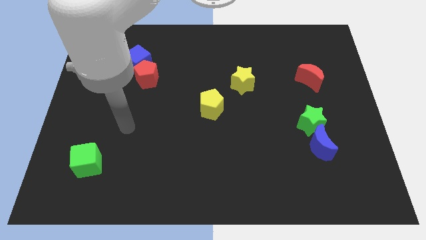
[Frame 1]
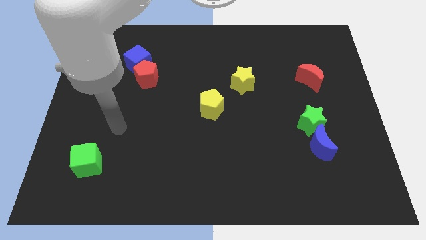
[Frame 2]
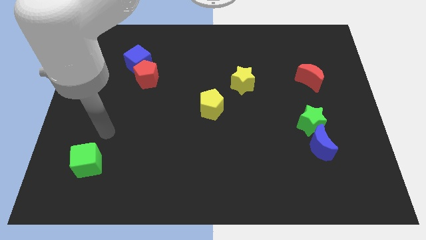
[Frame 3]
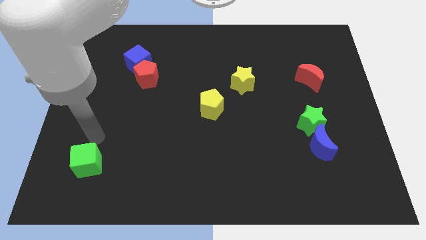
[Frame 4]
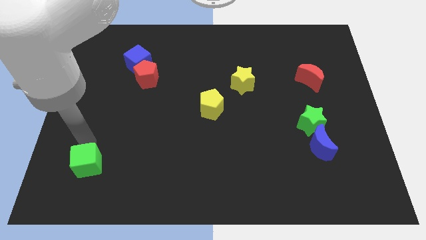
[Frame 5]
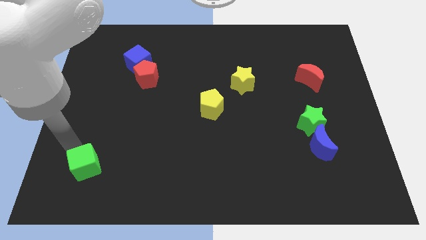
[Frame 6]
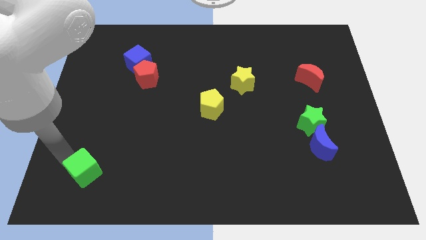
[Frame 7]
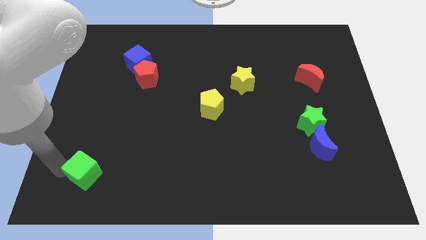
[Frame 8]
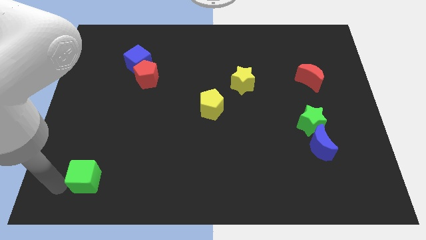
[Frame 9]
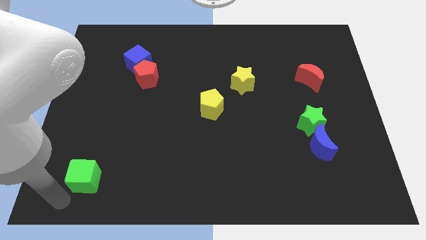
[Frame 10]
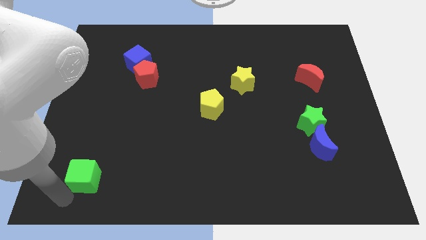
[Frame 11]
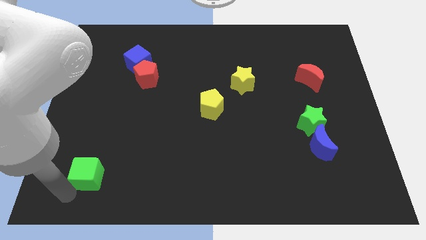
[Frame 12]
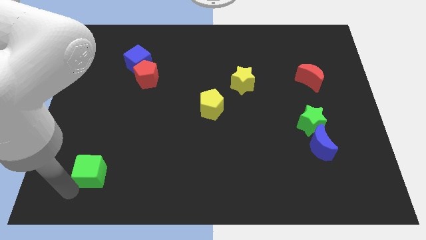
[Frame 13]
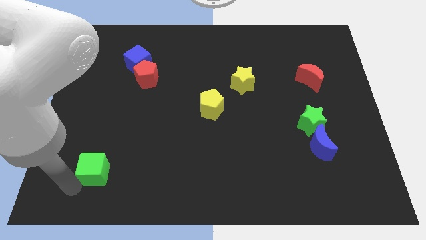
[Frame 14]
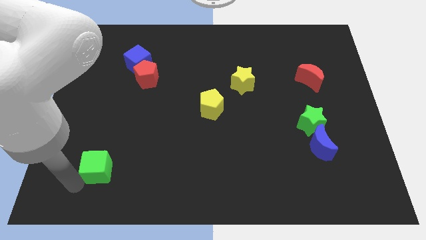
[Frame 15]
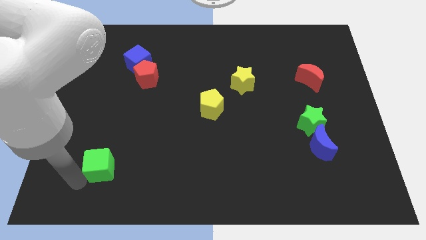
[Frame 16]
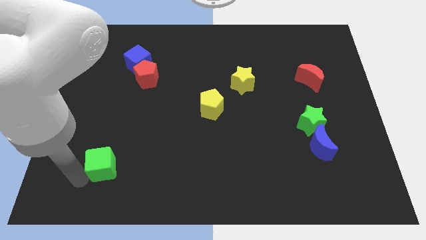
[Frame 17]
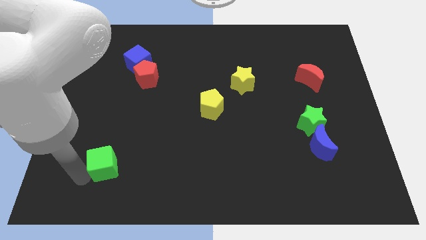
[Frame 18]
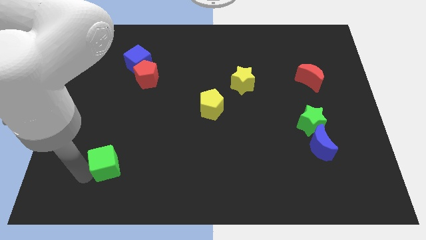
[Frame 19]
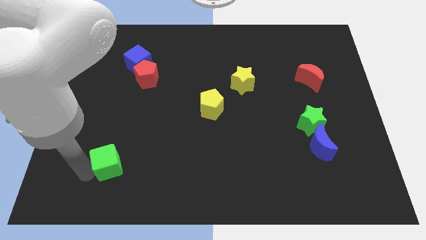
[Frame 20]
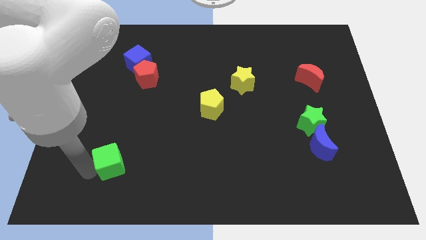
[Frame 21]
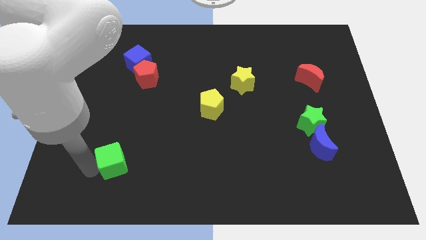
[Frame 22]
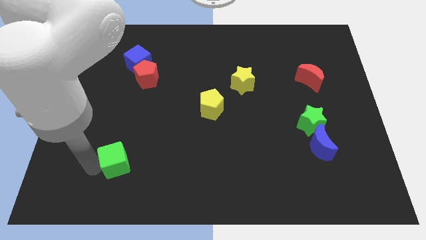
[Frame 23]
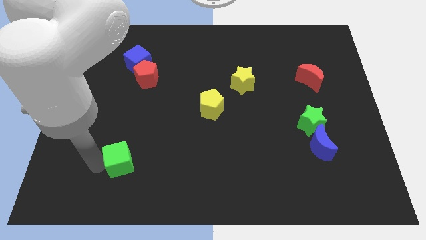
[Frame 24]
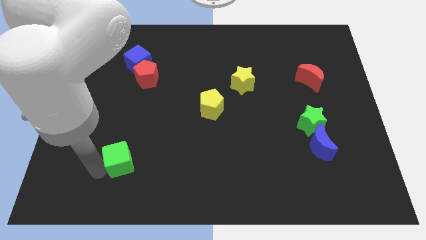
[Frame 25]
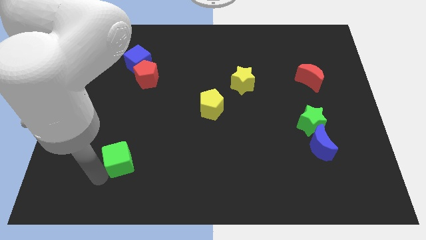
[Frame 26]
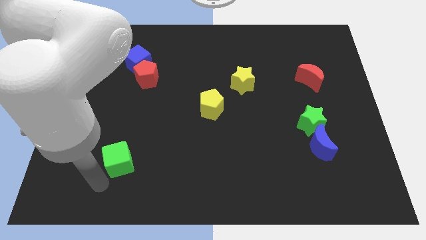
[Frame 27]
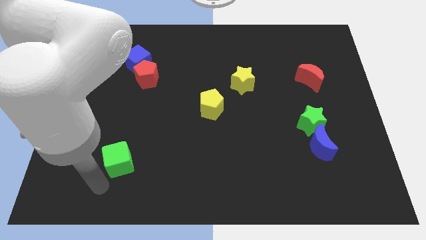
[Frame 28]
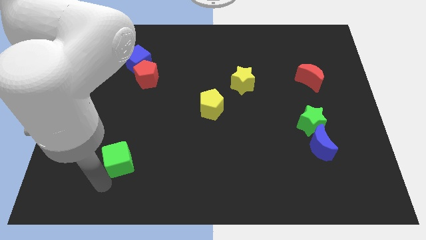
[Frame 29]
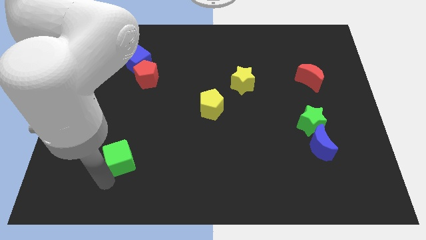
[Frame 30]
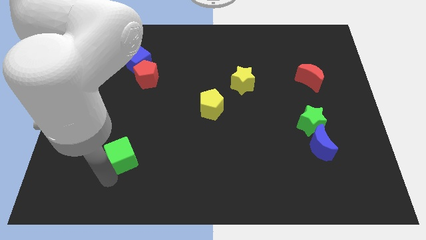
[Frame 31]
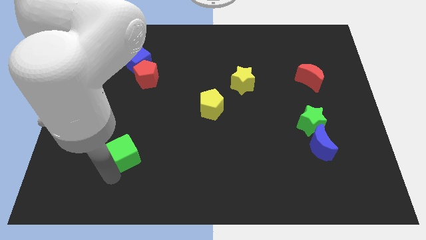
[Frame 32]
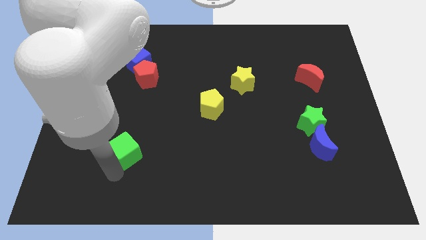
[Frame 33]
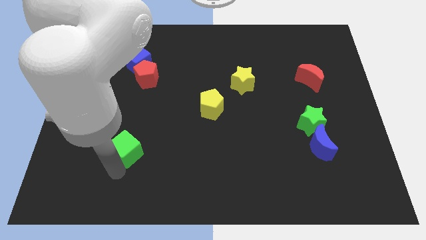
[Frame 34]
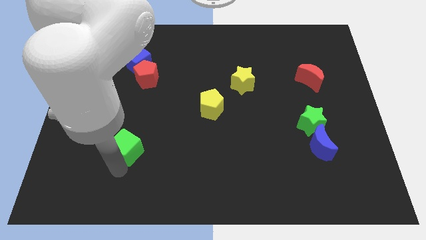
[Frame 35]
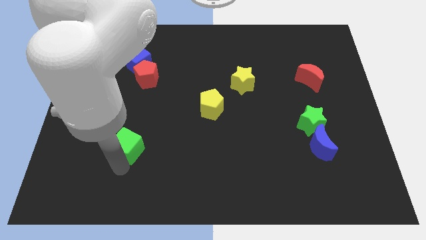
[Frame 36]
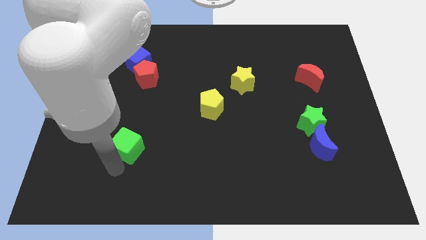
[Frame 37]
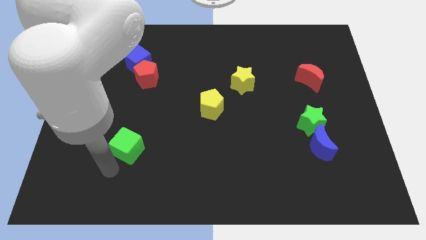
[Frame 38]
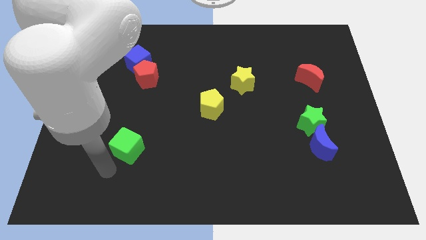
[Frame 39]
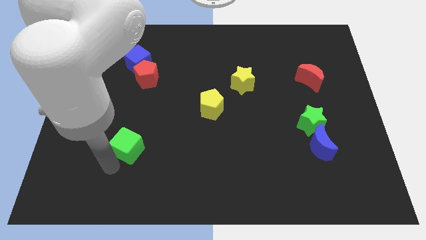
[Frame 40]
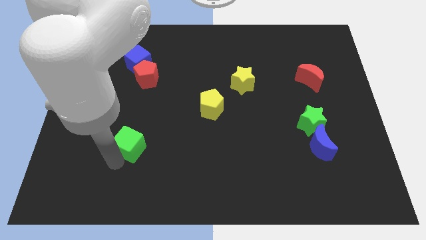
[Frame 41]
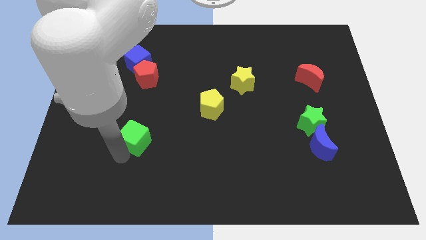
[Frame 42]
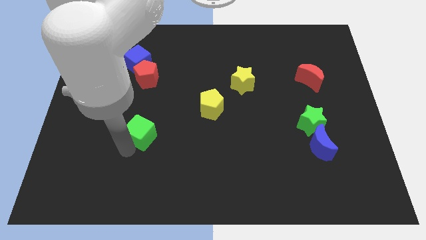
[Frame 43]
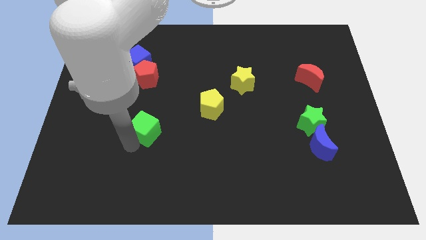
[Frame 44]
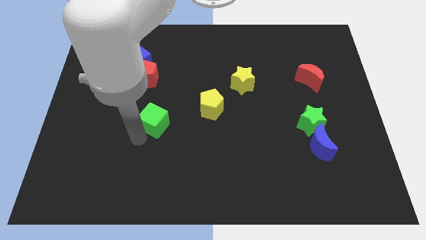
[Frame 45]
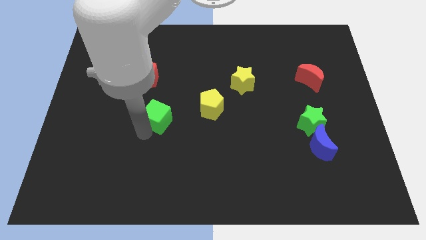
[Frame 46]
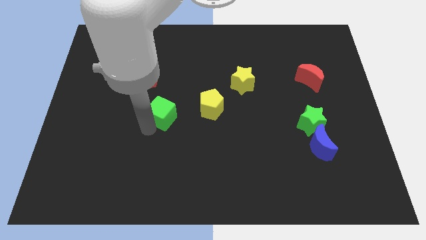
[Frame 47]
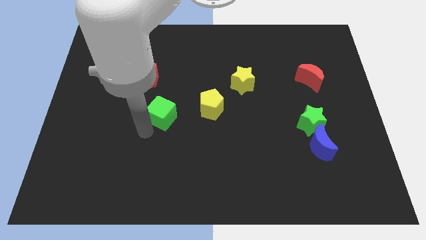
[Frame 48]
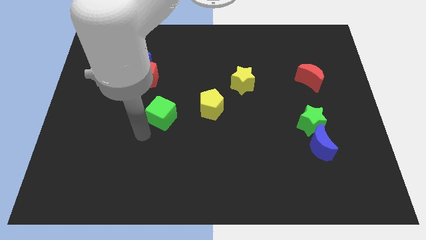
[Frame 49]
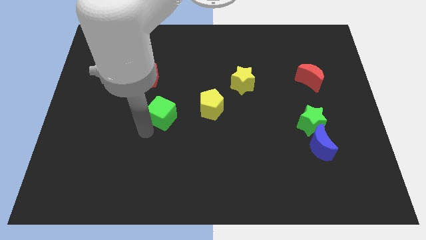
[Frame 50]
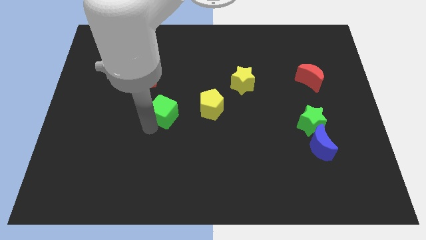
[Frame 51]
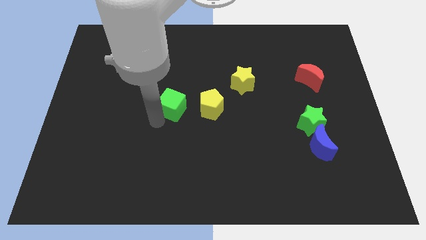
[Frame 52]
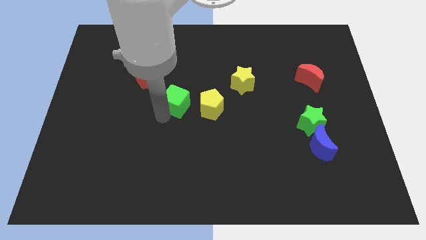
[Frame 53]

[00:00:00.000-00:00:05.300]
push the green cube to the top left side of the yellow pentagon

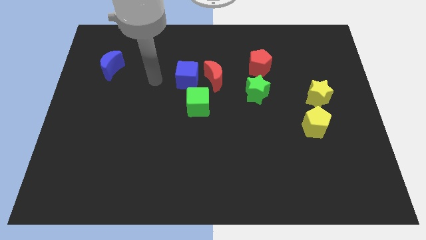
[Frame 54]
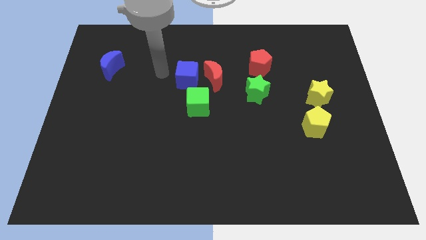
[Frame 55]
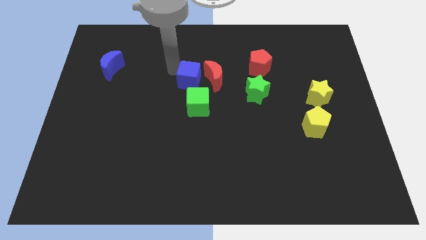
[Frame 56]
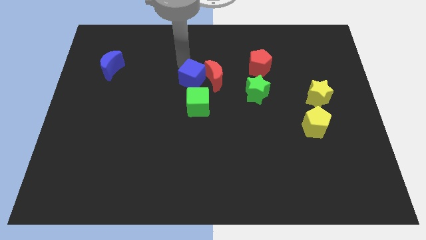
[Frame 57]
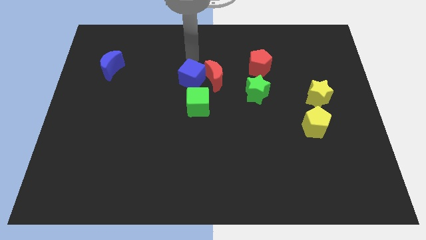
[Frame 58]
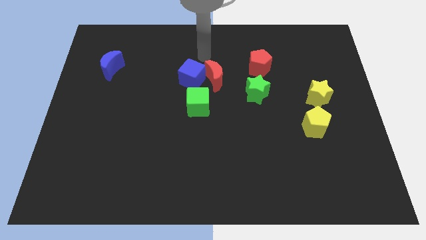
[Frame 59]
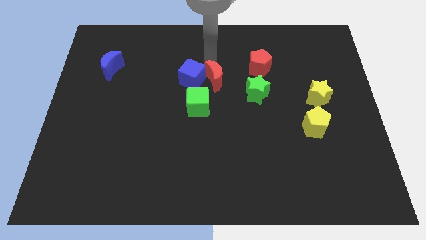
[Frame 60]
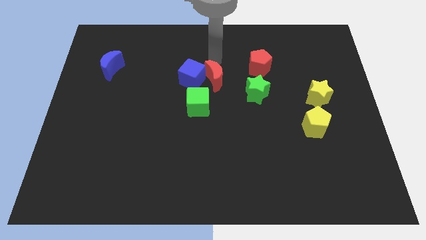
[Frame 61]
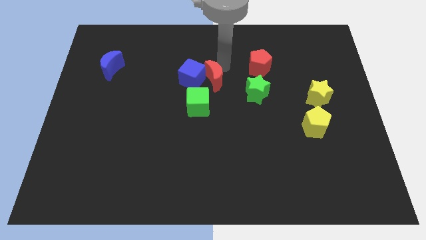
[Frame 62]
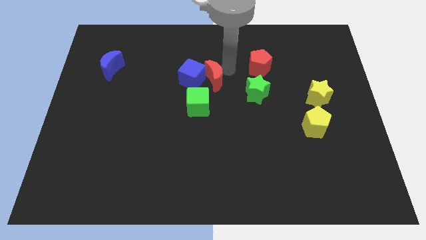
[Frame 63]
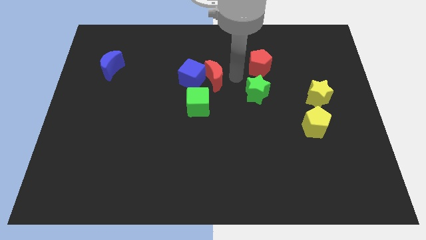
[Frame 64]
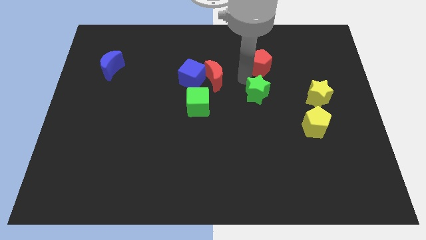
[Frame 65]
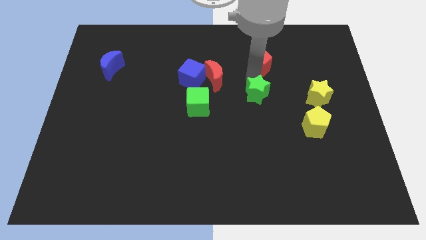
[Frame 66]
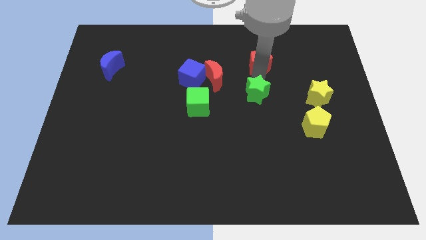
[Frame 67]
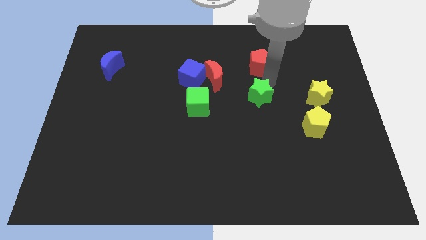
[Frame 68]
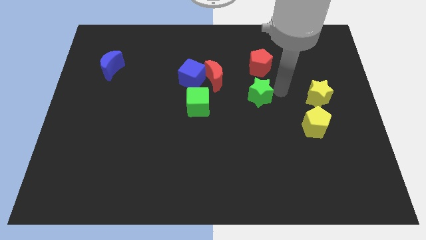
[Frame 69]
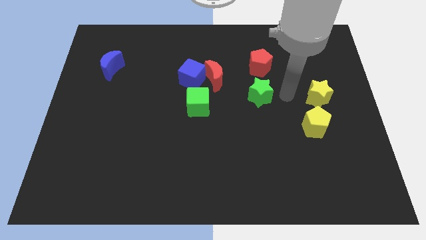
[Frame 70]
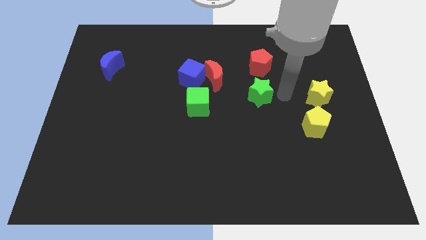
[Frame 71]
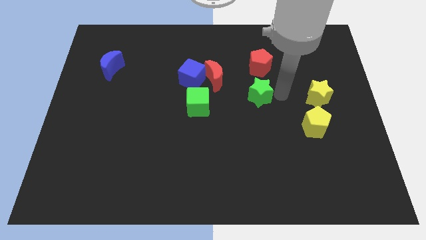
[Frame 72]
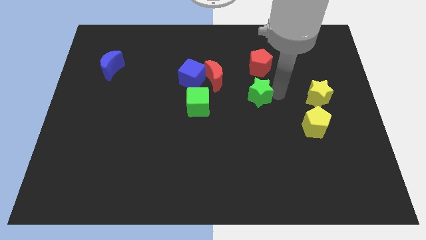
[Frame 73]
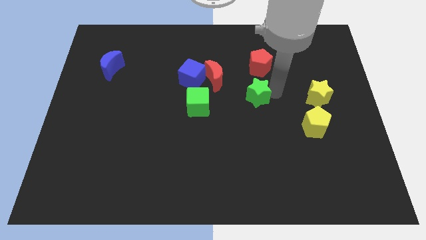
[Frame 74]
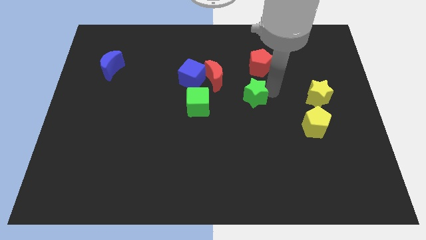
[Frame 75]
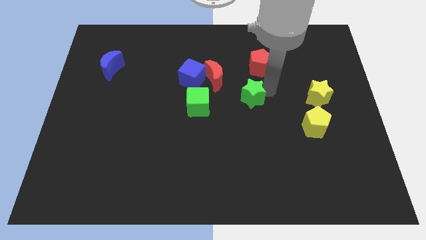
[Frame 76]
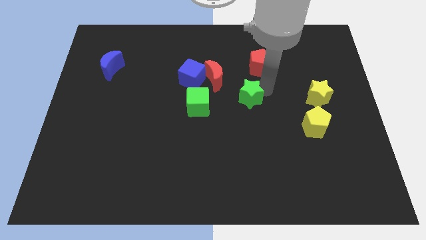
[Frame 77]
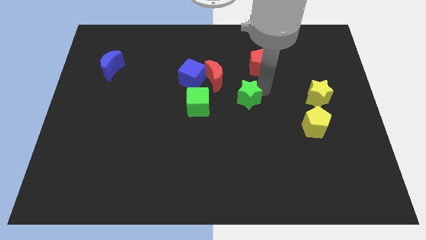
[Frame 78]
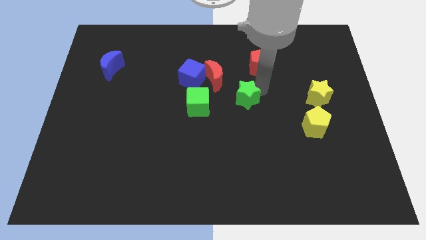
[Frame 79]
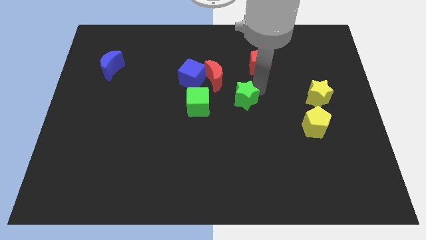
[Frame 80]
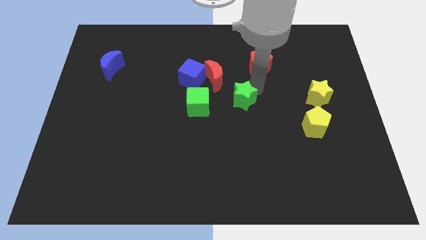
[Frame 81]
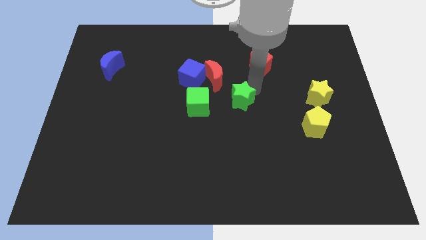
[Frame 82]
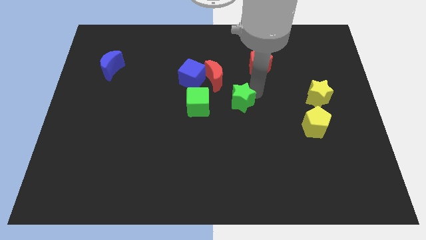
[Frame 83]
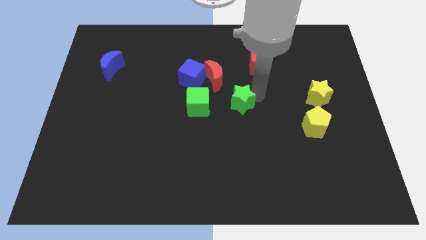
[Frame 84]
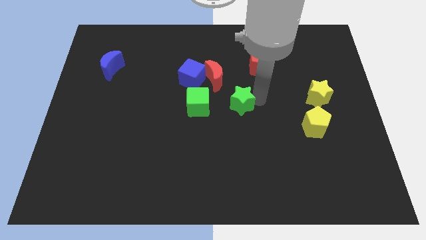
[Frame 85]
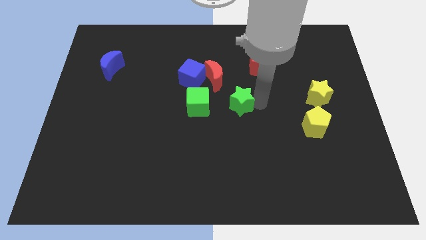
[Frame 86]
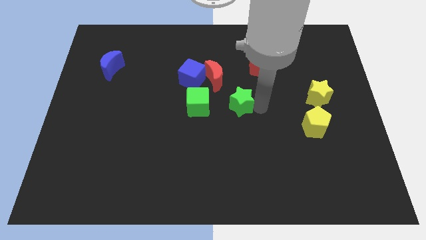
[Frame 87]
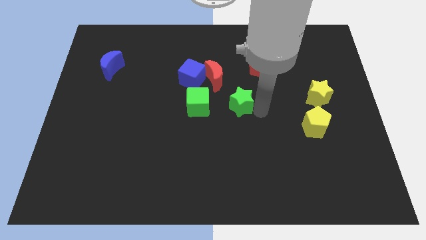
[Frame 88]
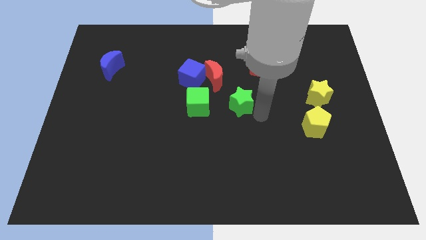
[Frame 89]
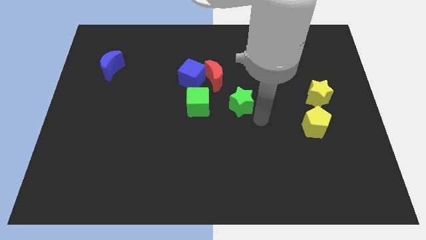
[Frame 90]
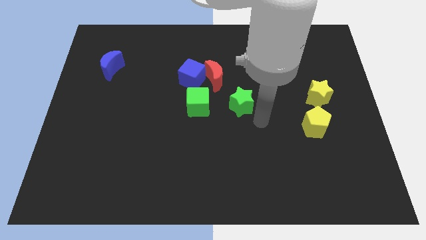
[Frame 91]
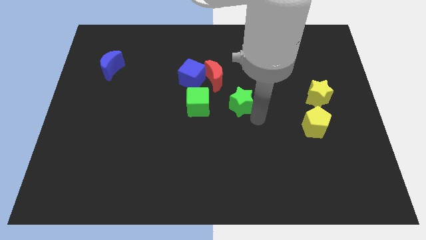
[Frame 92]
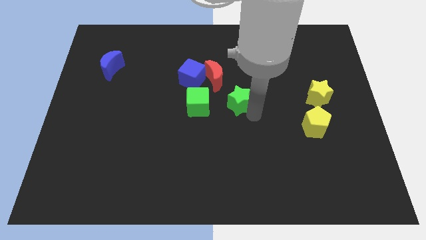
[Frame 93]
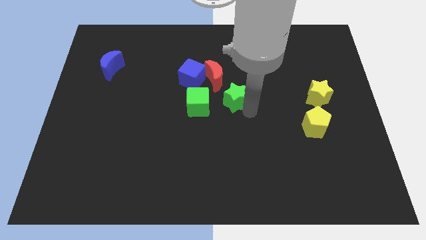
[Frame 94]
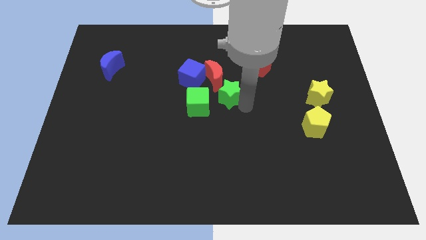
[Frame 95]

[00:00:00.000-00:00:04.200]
move the green star diagonally down and to the right of the blue cube
